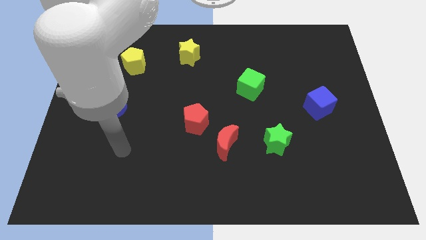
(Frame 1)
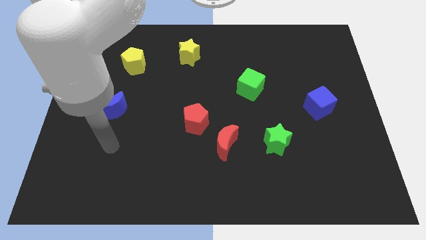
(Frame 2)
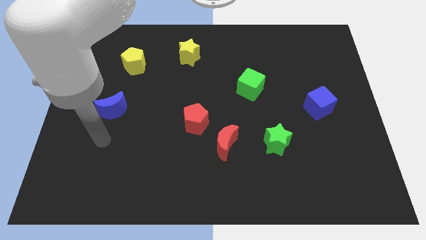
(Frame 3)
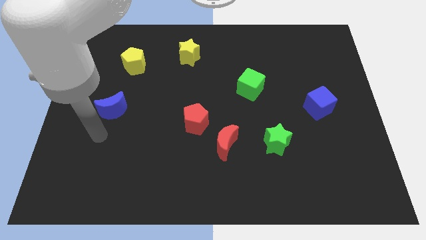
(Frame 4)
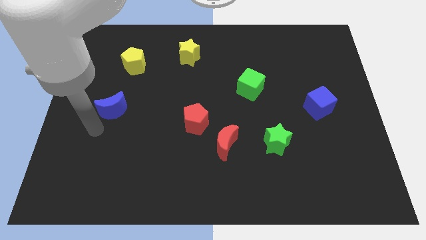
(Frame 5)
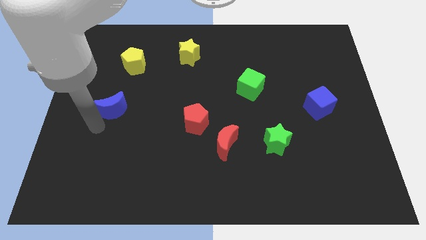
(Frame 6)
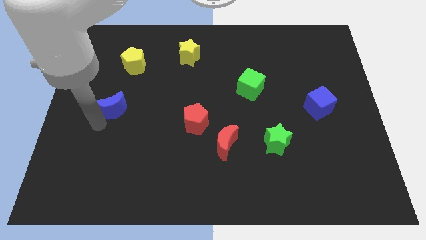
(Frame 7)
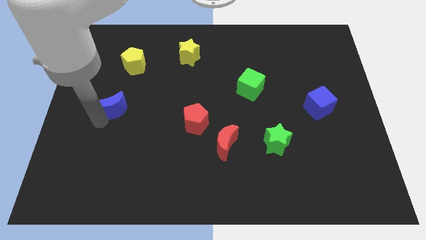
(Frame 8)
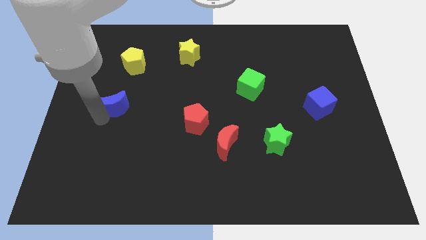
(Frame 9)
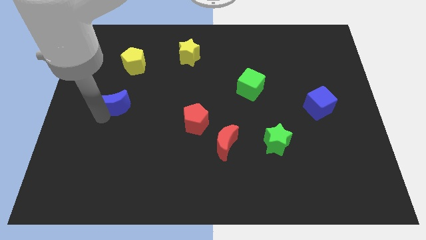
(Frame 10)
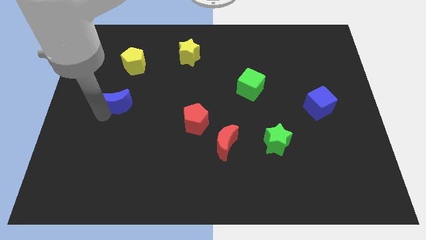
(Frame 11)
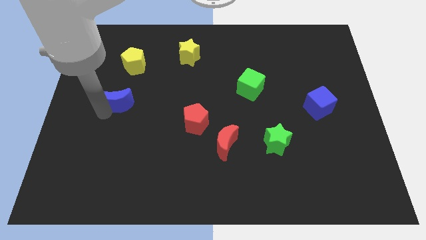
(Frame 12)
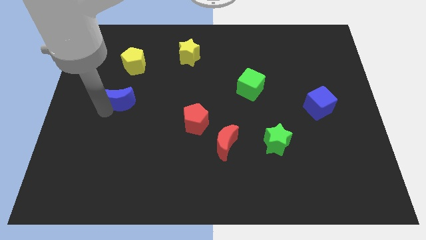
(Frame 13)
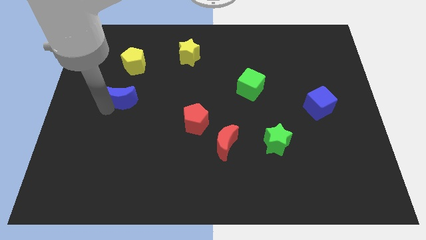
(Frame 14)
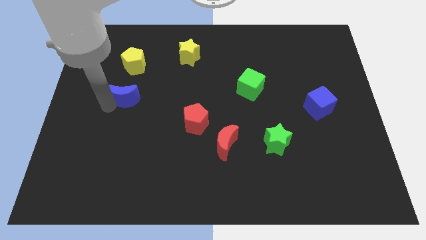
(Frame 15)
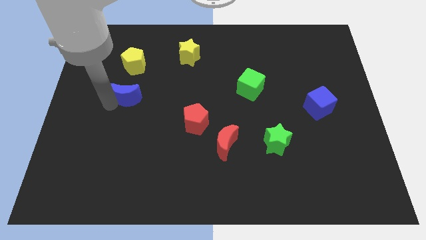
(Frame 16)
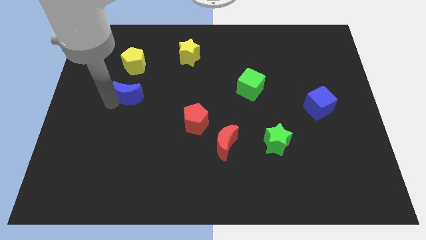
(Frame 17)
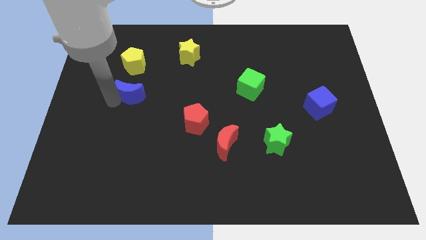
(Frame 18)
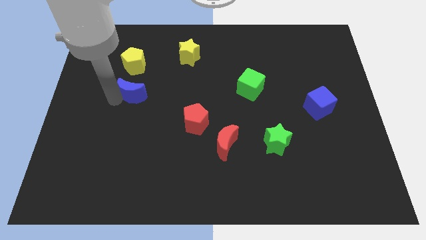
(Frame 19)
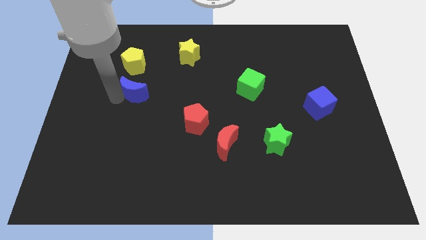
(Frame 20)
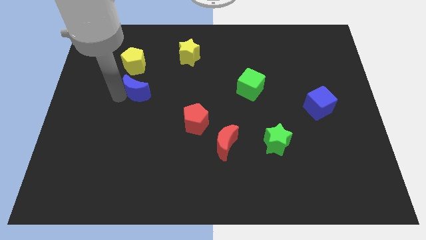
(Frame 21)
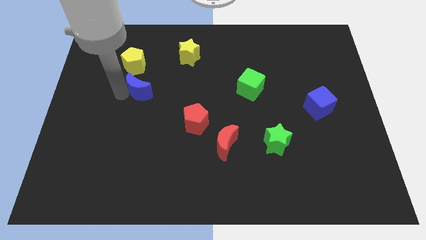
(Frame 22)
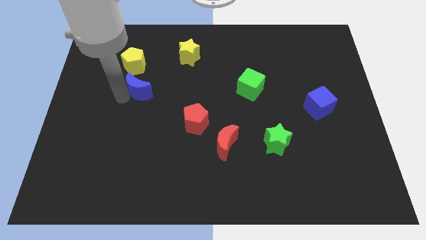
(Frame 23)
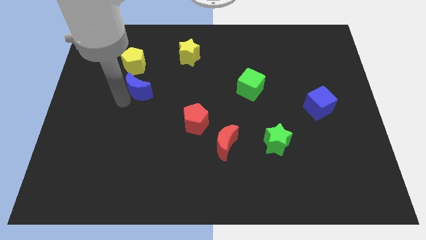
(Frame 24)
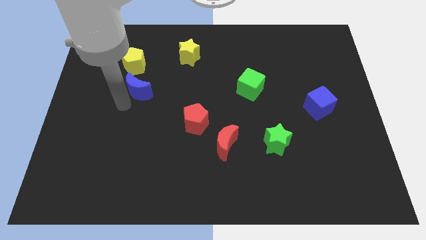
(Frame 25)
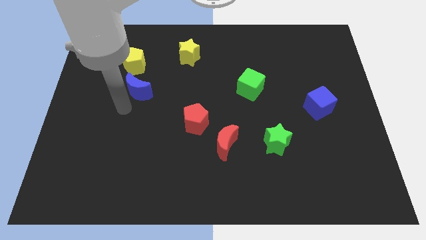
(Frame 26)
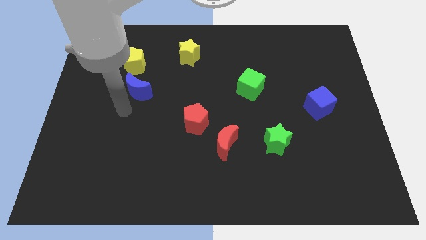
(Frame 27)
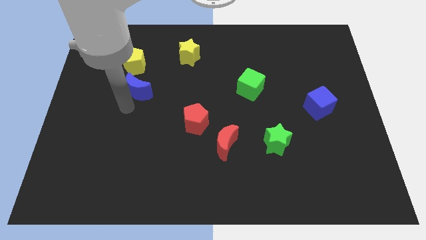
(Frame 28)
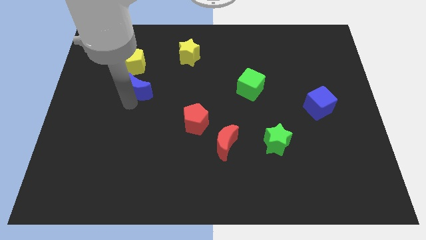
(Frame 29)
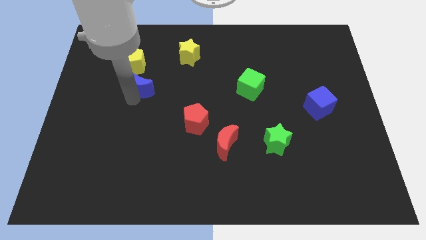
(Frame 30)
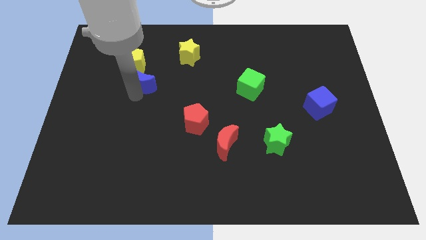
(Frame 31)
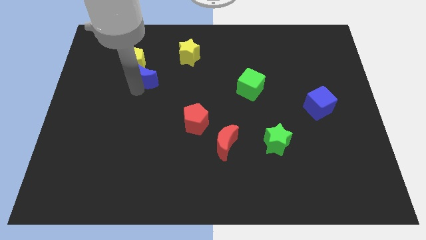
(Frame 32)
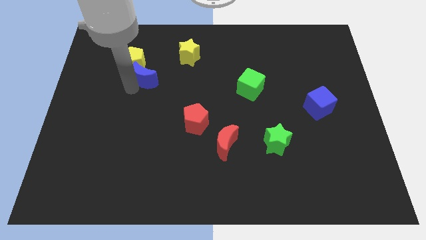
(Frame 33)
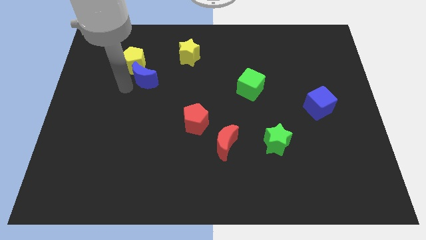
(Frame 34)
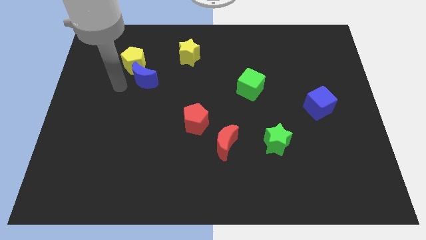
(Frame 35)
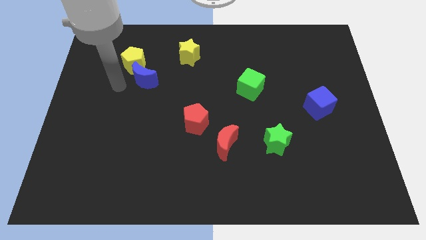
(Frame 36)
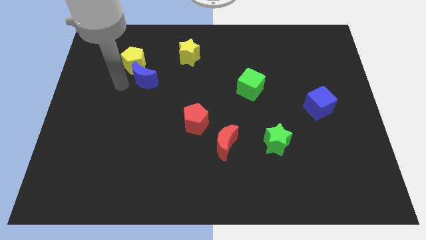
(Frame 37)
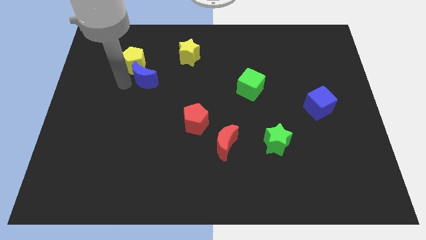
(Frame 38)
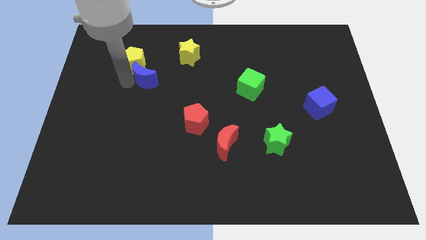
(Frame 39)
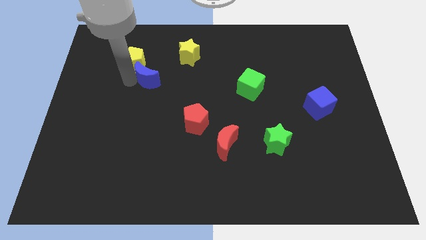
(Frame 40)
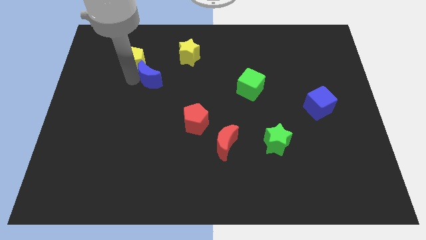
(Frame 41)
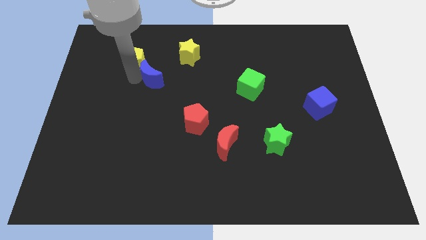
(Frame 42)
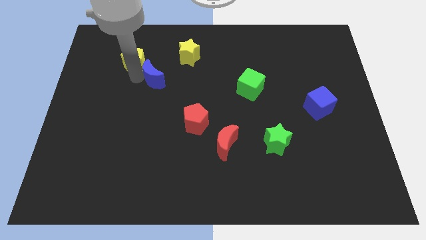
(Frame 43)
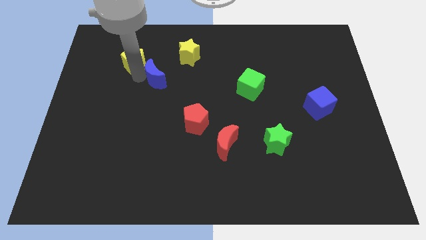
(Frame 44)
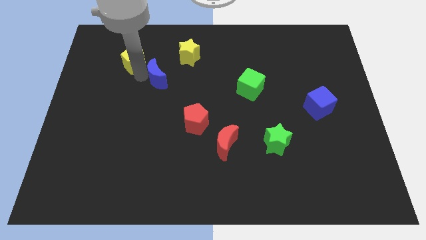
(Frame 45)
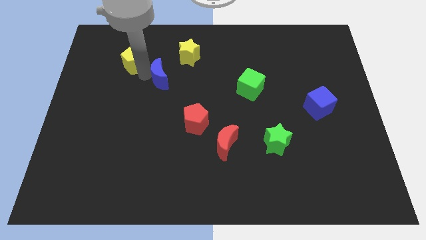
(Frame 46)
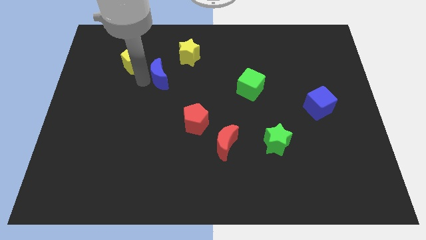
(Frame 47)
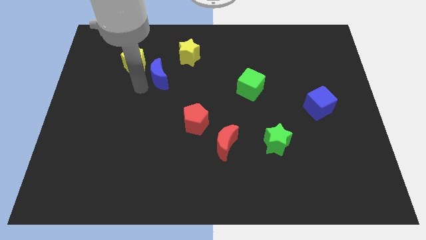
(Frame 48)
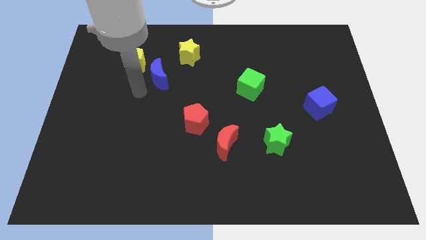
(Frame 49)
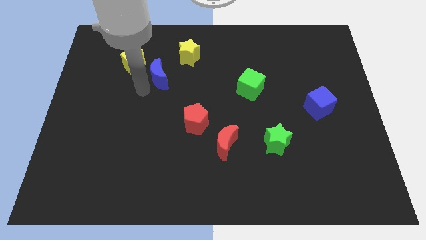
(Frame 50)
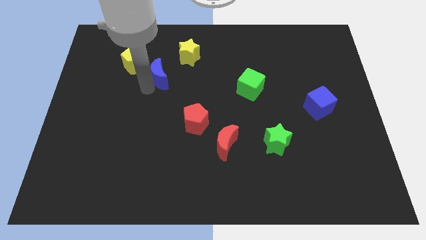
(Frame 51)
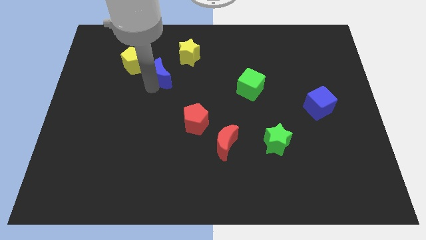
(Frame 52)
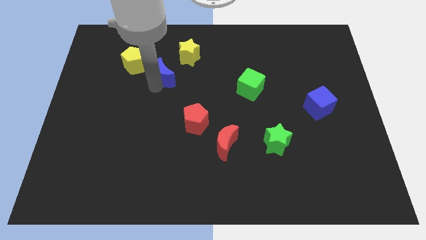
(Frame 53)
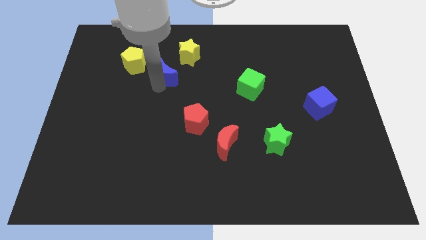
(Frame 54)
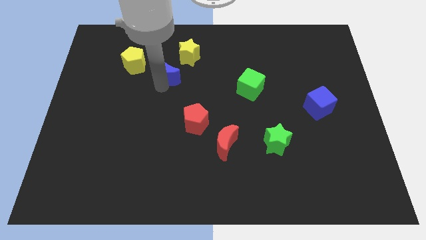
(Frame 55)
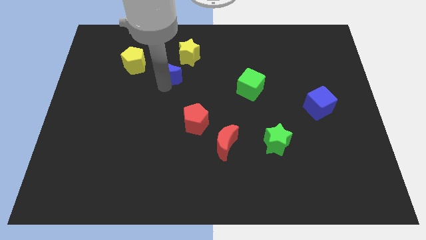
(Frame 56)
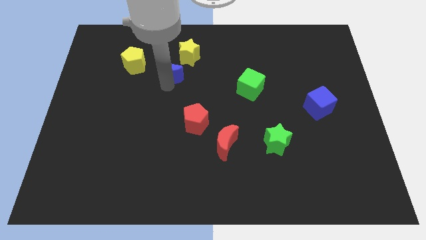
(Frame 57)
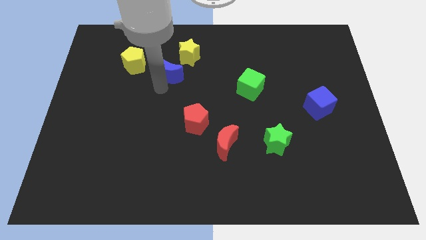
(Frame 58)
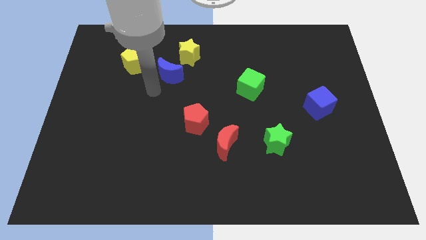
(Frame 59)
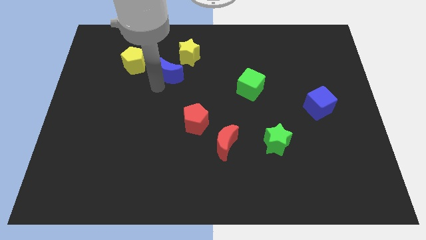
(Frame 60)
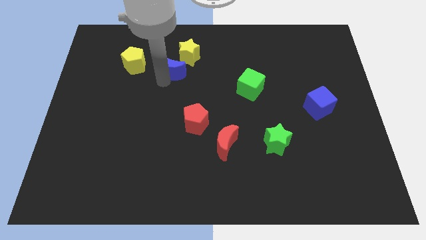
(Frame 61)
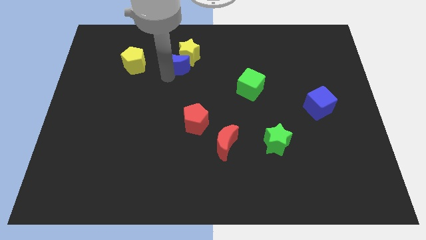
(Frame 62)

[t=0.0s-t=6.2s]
move the blue moon next to the yellow star

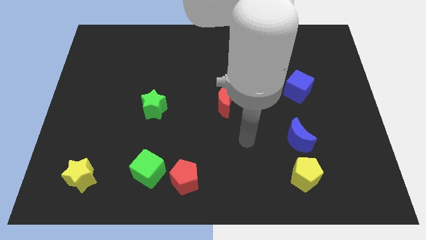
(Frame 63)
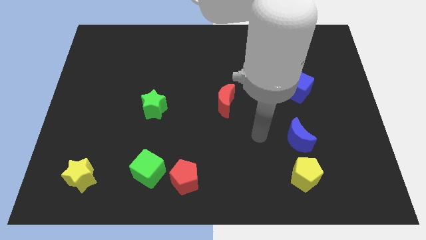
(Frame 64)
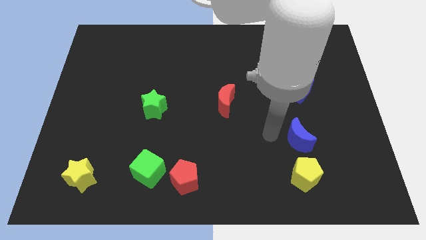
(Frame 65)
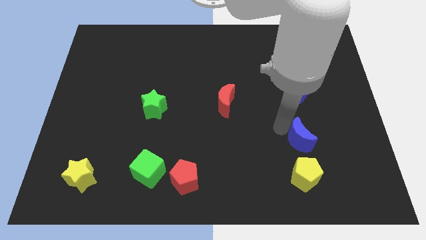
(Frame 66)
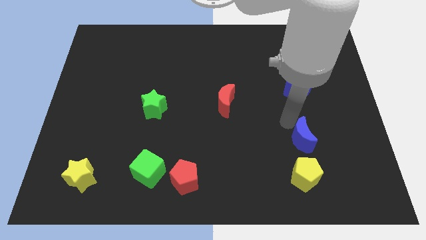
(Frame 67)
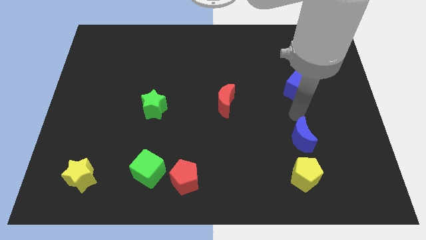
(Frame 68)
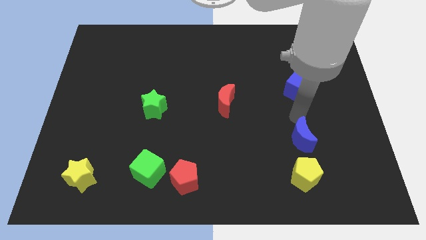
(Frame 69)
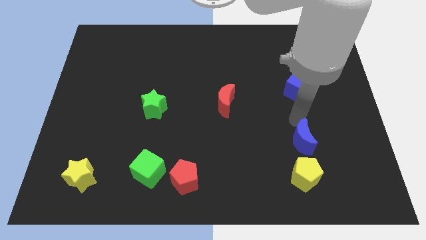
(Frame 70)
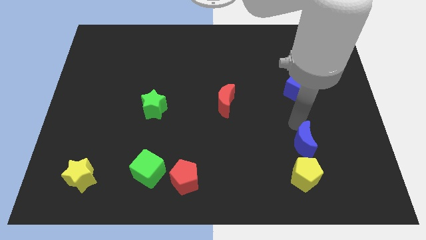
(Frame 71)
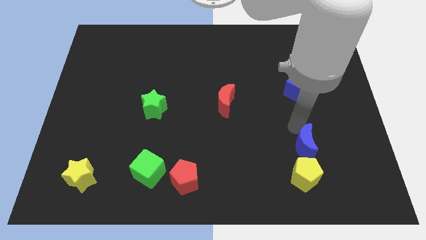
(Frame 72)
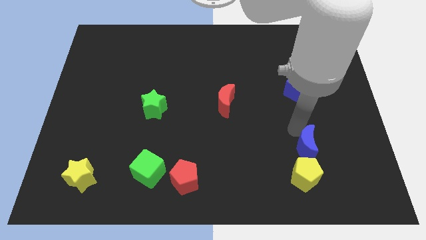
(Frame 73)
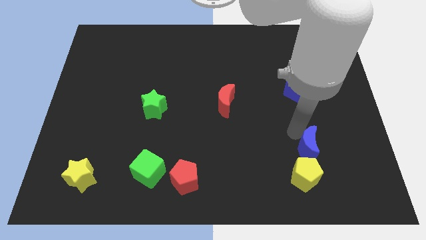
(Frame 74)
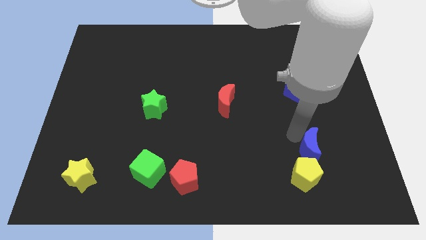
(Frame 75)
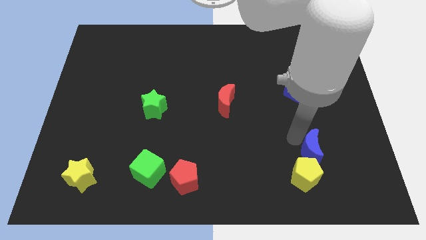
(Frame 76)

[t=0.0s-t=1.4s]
slide the blue moon next to the yellow pentagon

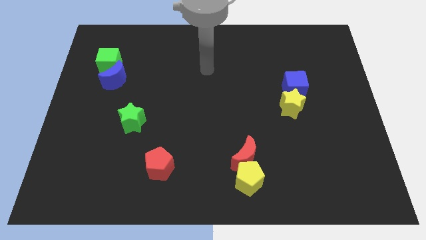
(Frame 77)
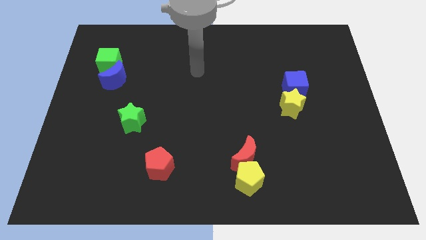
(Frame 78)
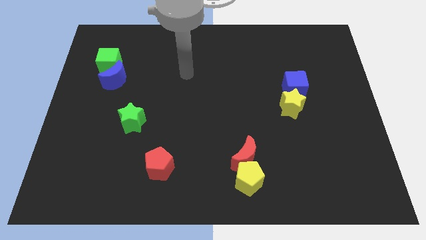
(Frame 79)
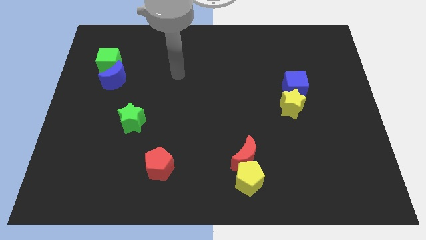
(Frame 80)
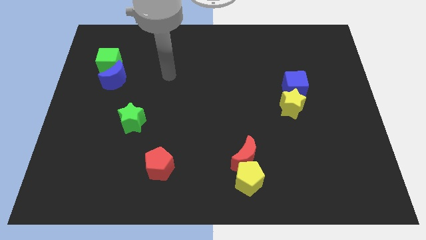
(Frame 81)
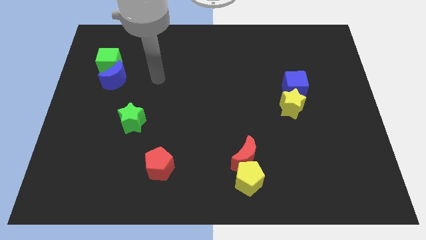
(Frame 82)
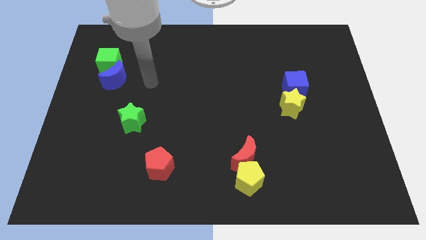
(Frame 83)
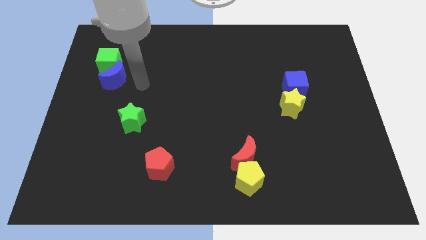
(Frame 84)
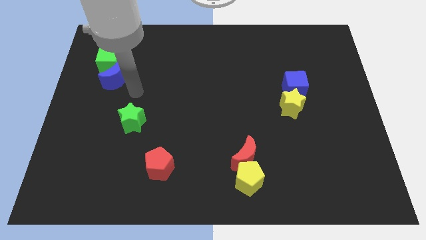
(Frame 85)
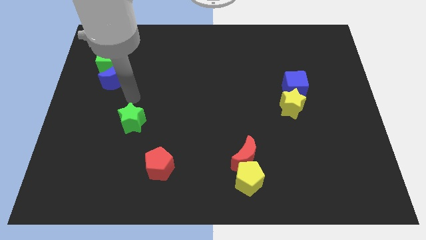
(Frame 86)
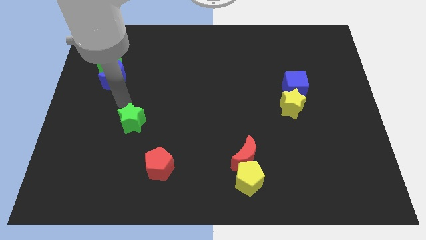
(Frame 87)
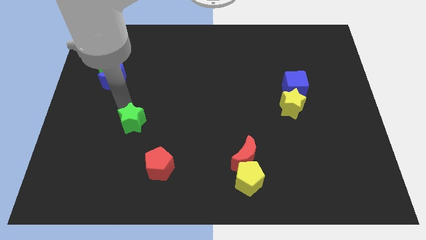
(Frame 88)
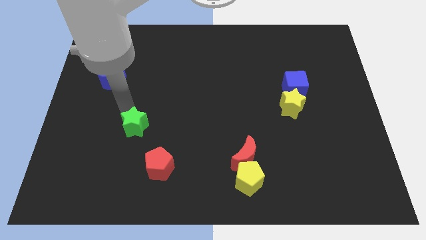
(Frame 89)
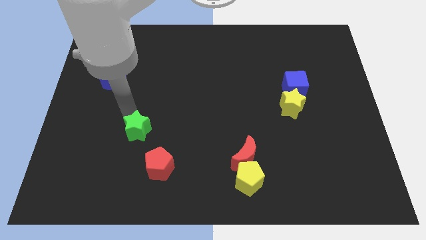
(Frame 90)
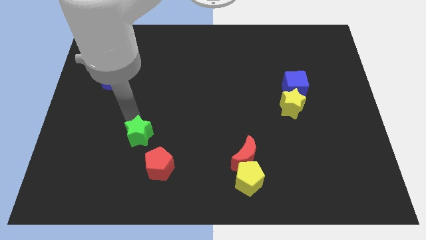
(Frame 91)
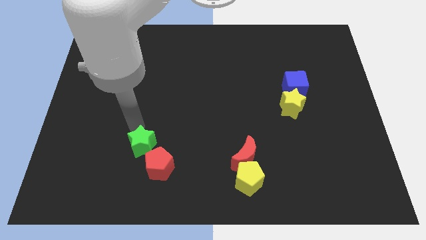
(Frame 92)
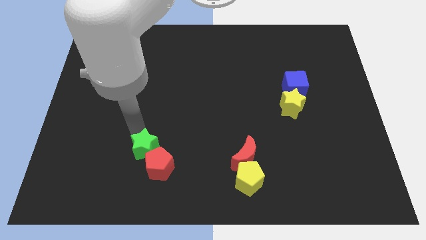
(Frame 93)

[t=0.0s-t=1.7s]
put the green star towards the red pentagon
